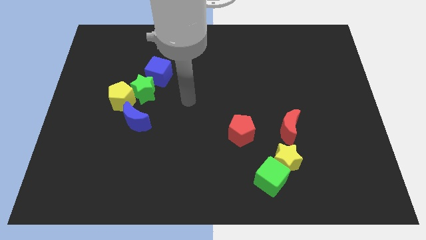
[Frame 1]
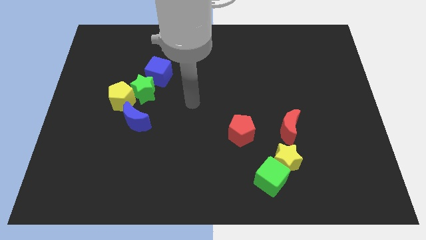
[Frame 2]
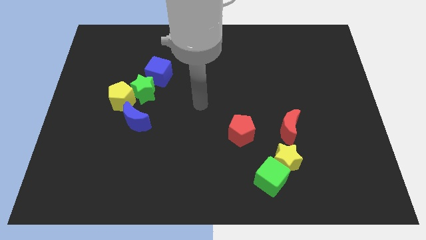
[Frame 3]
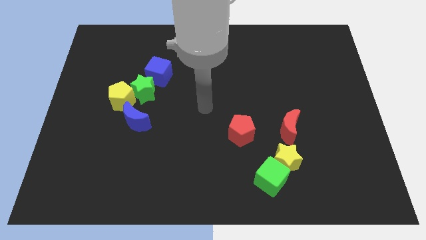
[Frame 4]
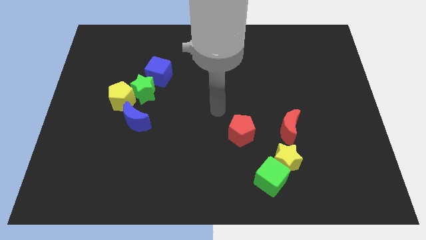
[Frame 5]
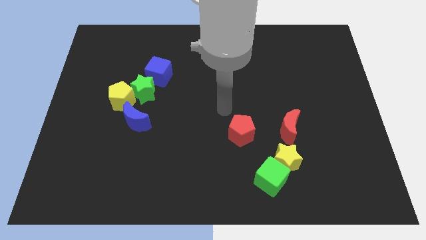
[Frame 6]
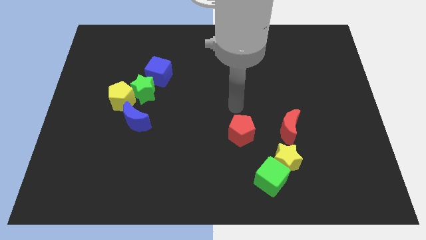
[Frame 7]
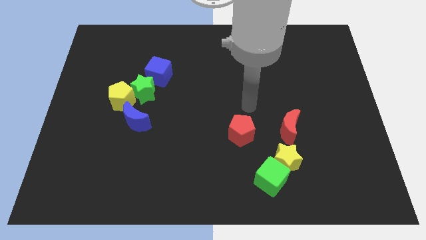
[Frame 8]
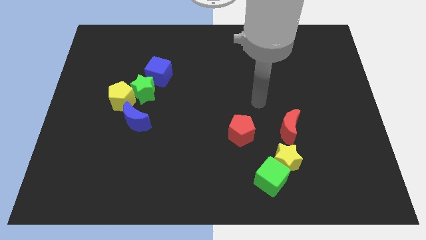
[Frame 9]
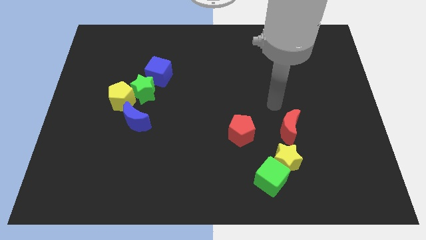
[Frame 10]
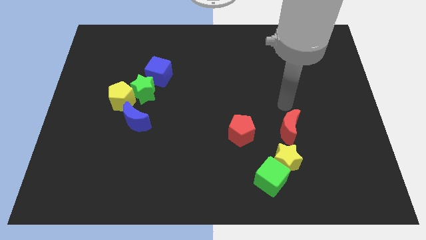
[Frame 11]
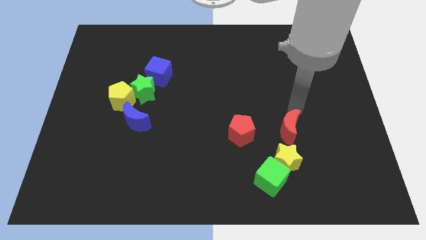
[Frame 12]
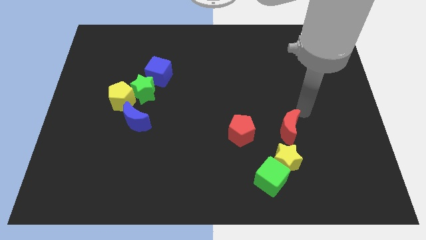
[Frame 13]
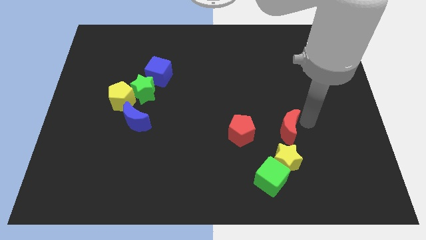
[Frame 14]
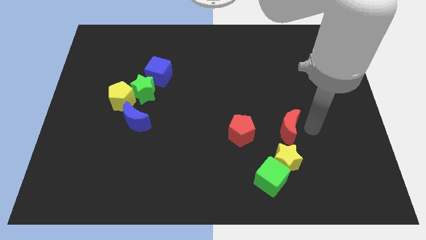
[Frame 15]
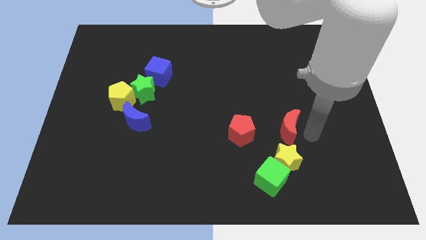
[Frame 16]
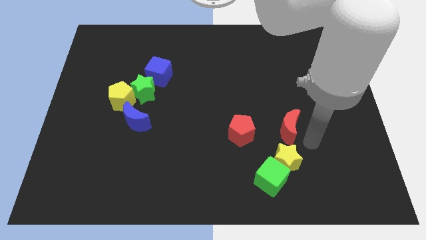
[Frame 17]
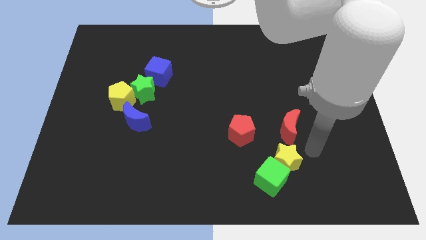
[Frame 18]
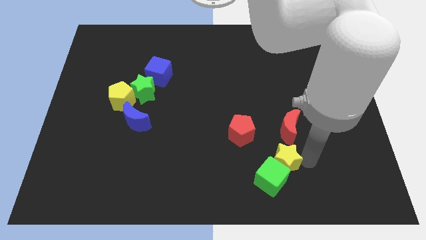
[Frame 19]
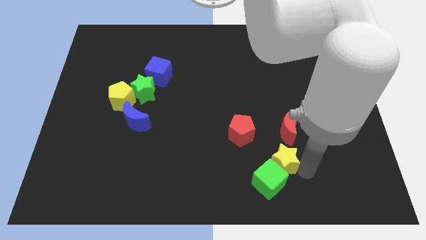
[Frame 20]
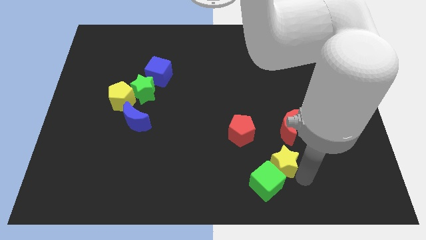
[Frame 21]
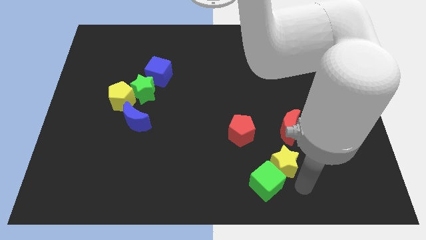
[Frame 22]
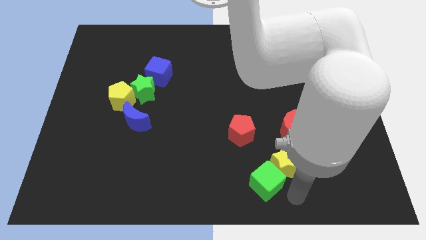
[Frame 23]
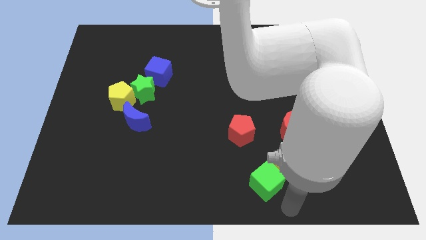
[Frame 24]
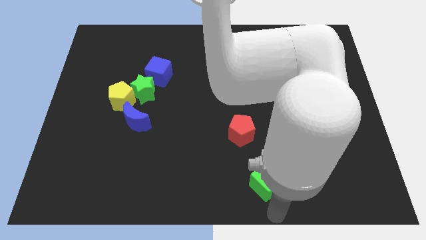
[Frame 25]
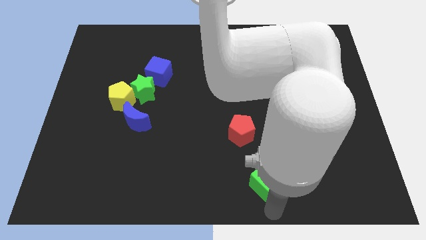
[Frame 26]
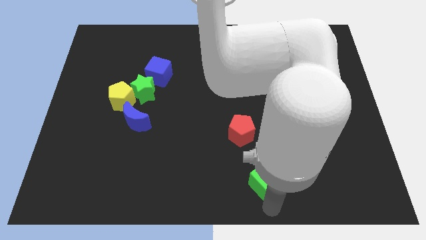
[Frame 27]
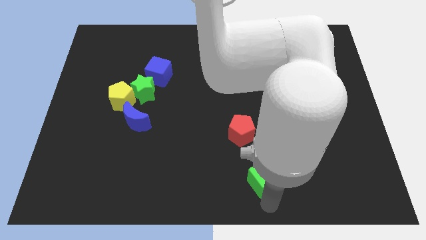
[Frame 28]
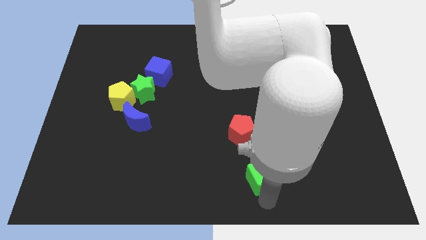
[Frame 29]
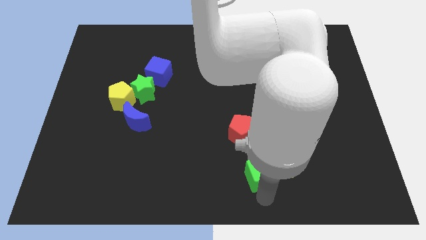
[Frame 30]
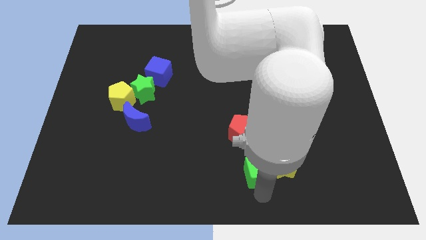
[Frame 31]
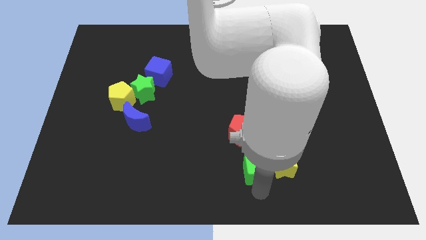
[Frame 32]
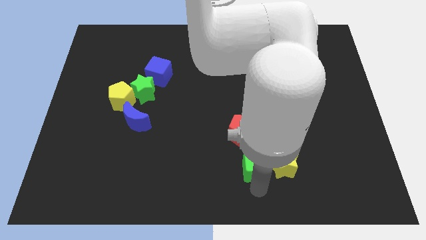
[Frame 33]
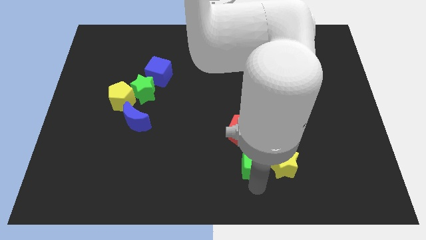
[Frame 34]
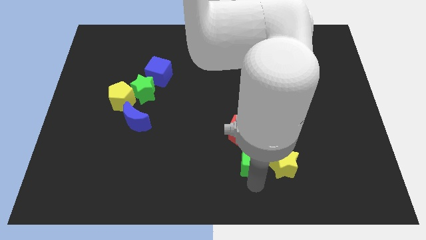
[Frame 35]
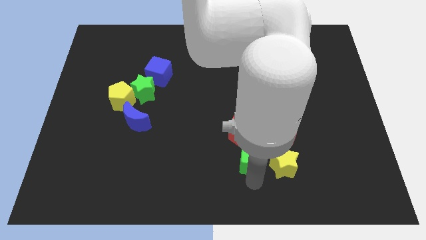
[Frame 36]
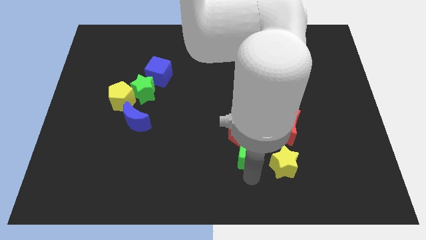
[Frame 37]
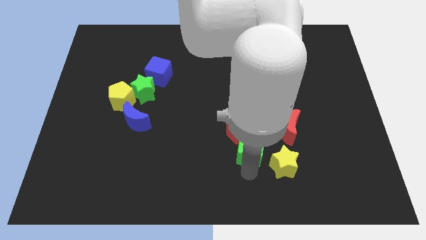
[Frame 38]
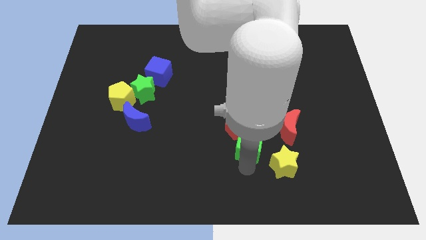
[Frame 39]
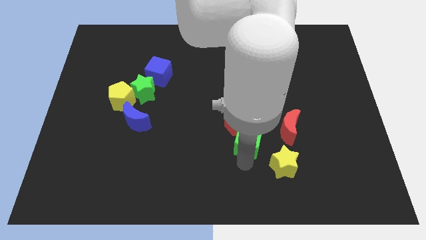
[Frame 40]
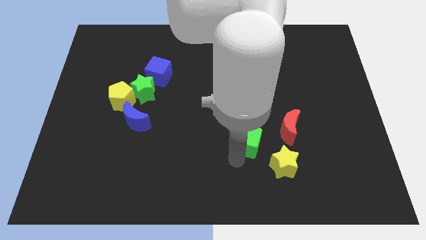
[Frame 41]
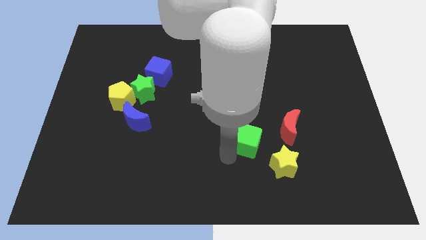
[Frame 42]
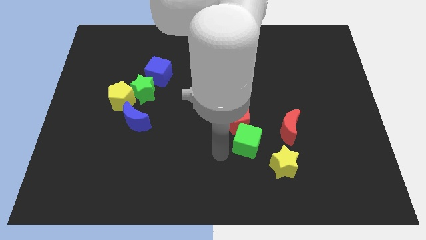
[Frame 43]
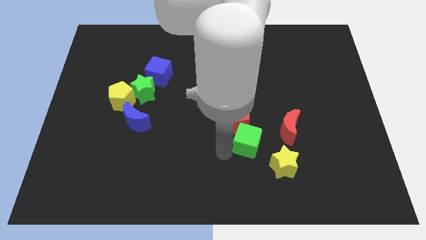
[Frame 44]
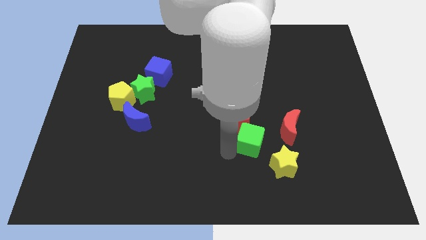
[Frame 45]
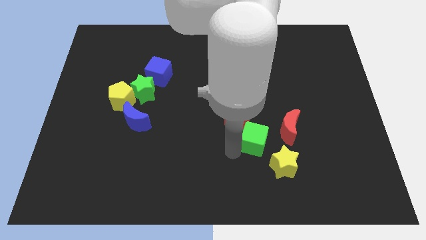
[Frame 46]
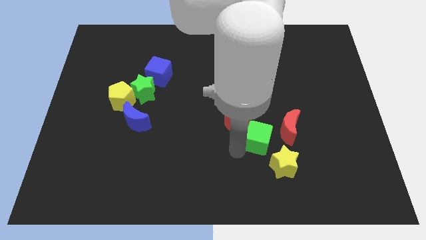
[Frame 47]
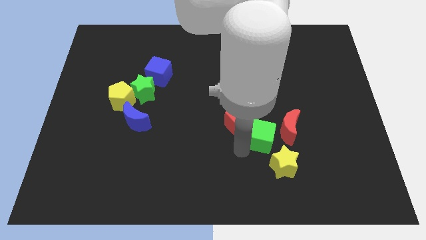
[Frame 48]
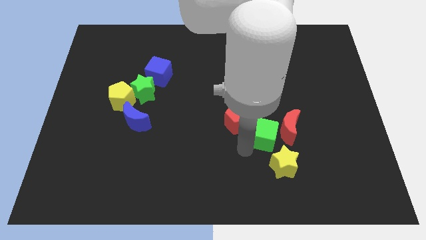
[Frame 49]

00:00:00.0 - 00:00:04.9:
put the green cube next to the red moon

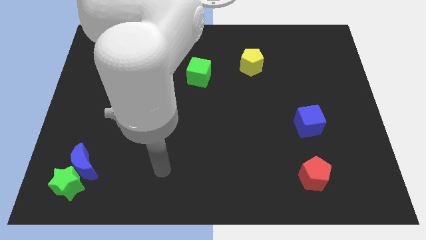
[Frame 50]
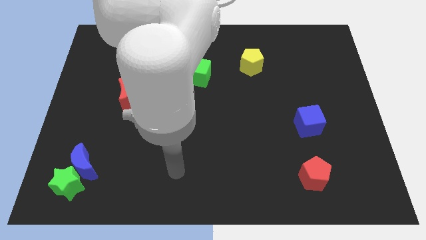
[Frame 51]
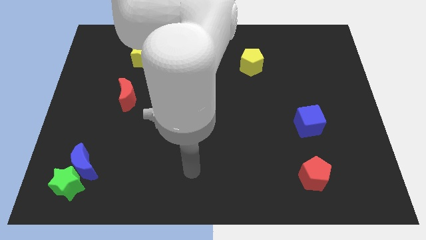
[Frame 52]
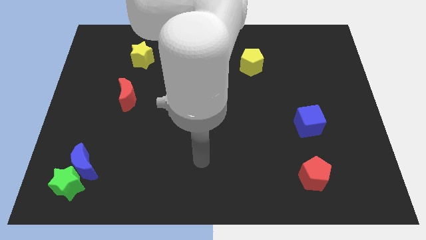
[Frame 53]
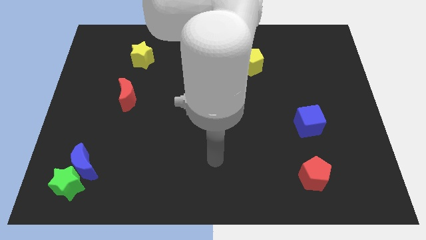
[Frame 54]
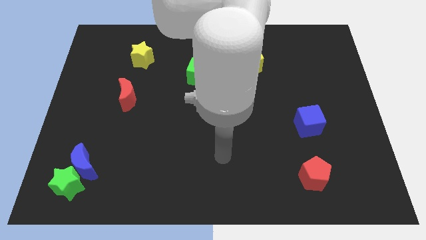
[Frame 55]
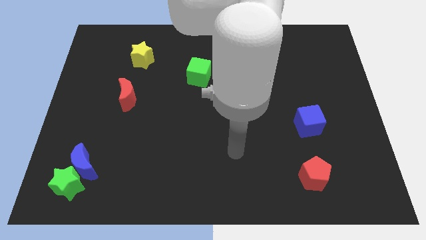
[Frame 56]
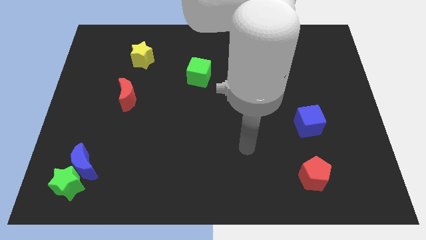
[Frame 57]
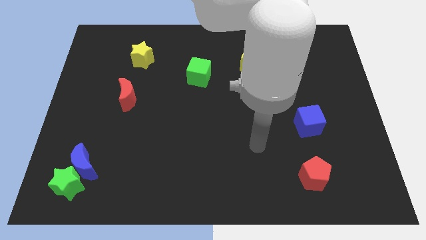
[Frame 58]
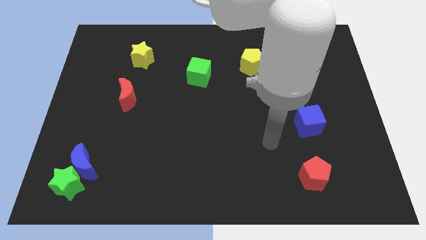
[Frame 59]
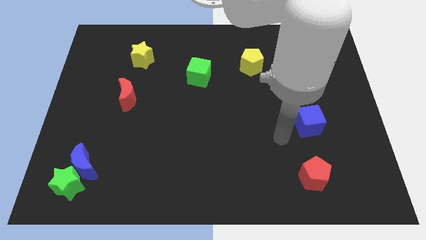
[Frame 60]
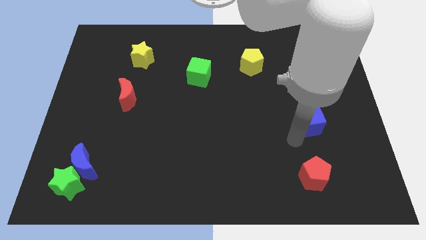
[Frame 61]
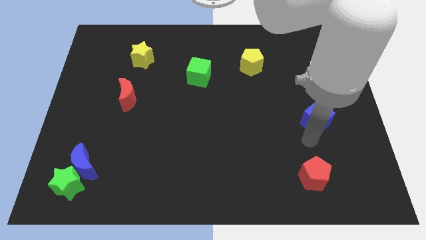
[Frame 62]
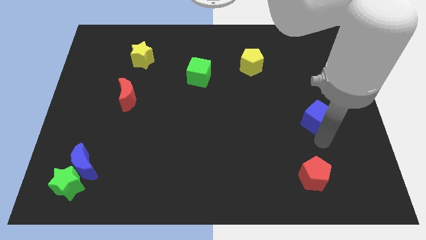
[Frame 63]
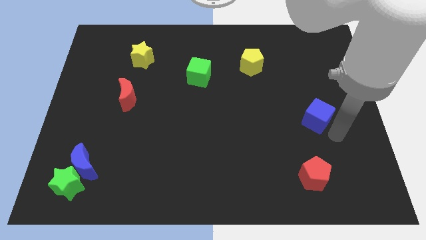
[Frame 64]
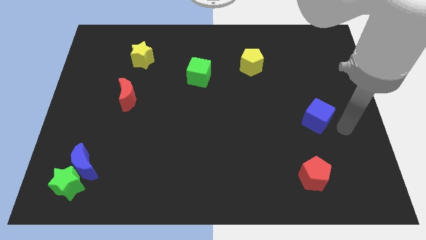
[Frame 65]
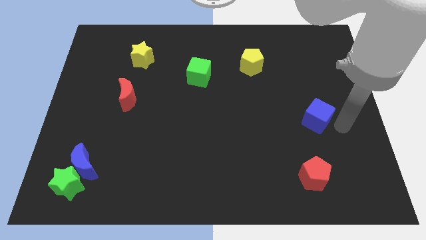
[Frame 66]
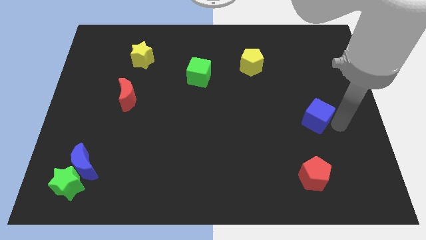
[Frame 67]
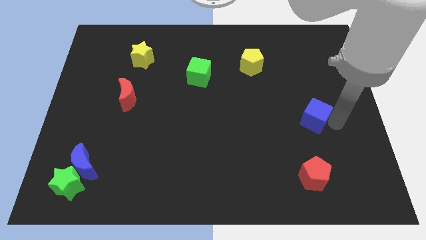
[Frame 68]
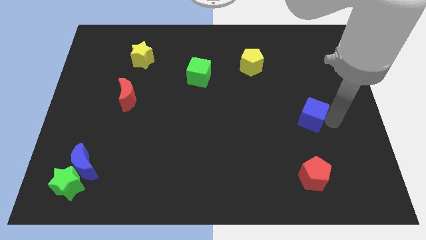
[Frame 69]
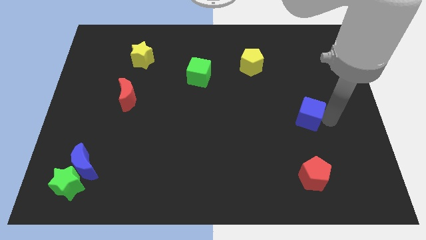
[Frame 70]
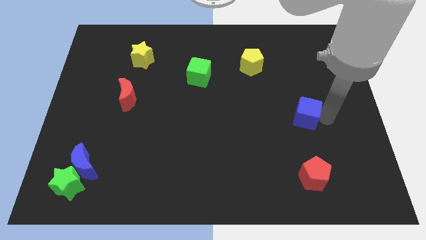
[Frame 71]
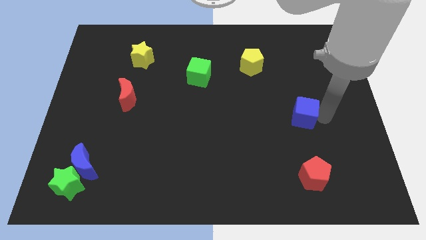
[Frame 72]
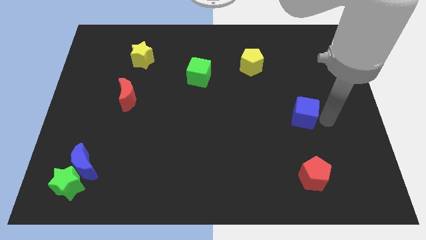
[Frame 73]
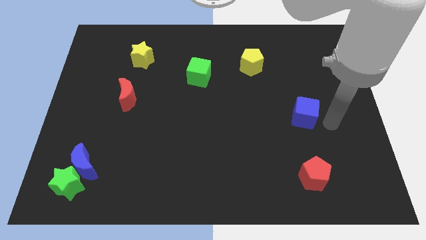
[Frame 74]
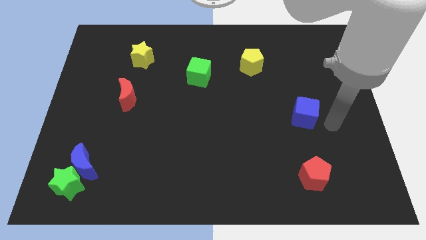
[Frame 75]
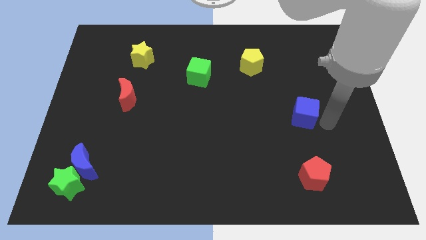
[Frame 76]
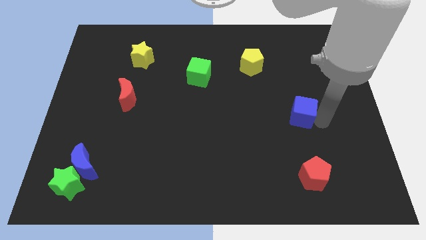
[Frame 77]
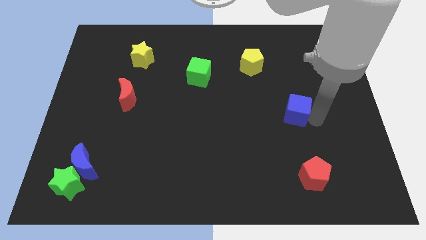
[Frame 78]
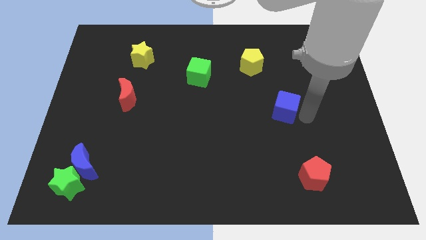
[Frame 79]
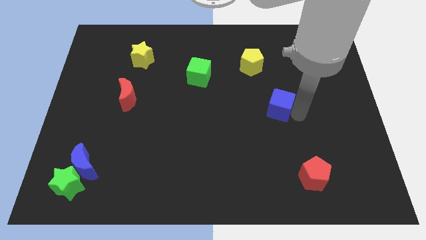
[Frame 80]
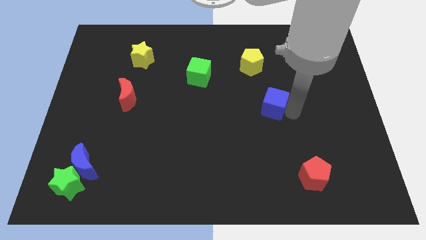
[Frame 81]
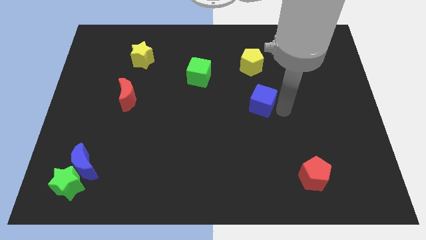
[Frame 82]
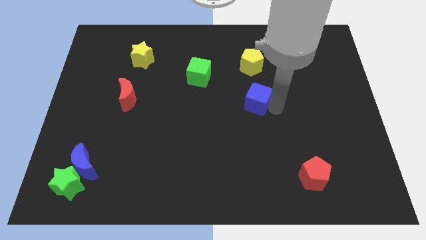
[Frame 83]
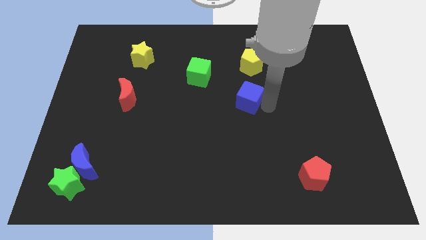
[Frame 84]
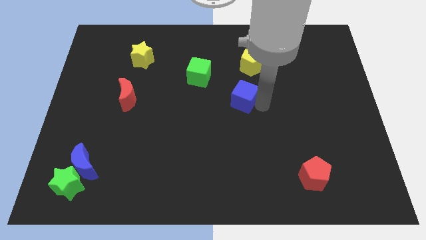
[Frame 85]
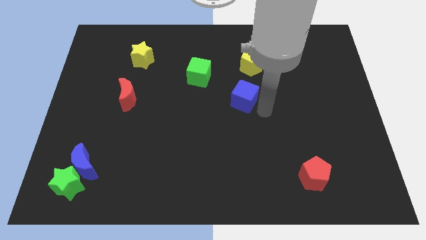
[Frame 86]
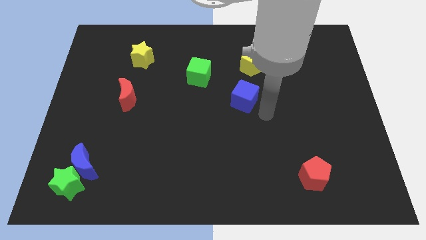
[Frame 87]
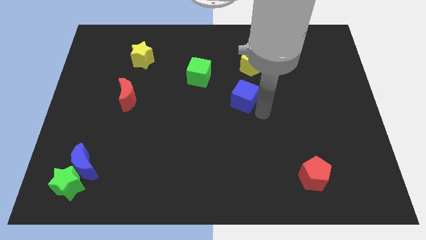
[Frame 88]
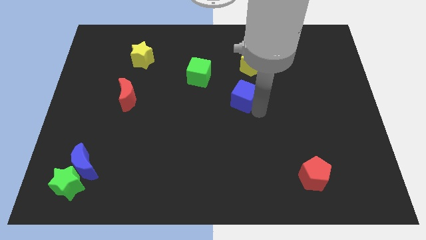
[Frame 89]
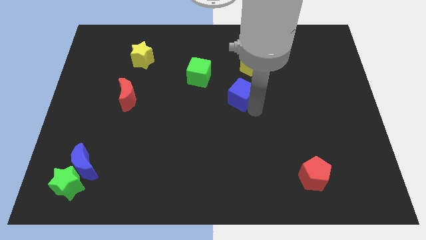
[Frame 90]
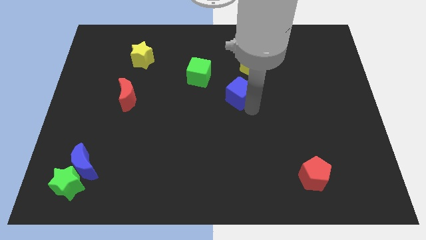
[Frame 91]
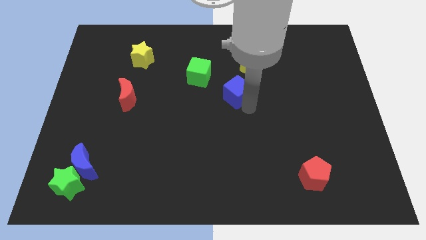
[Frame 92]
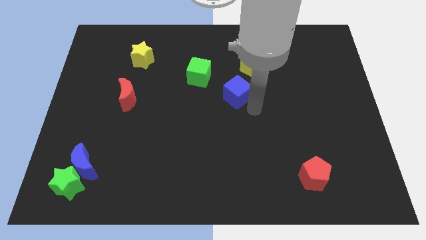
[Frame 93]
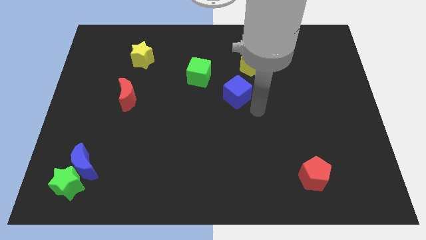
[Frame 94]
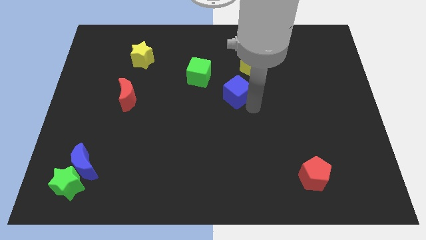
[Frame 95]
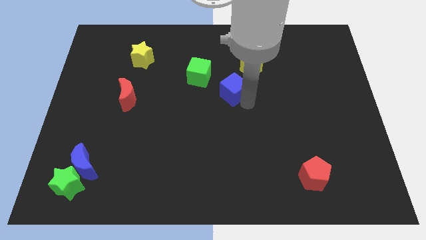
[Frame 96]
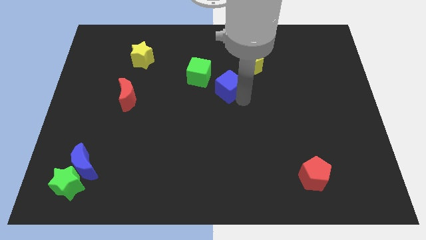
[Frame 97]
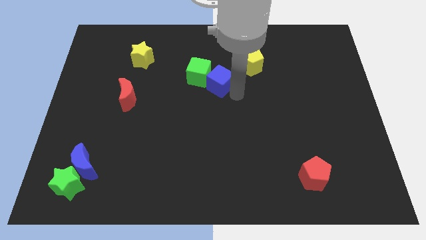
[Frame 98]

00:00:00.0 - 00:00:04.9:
put the blue cube next to the green cube
